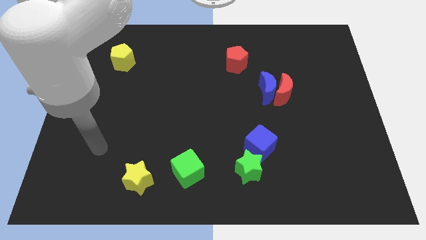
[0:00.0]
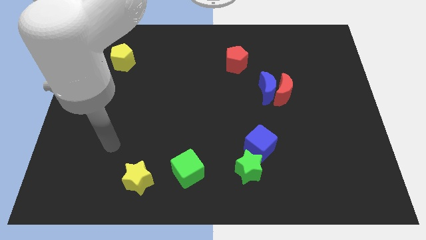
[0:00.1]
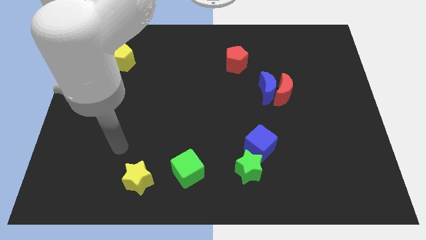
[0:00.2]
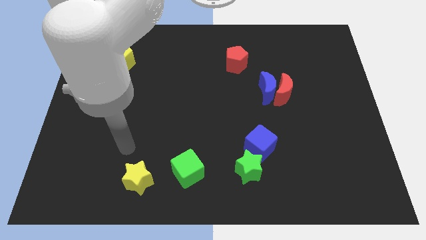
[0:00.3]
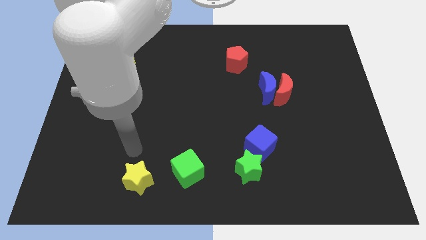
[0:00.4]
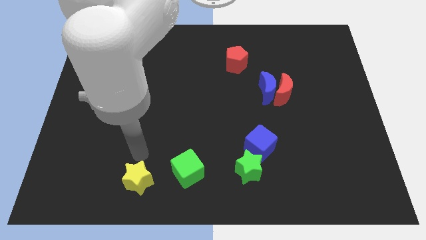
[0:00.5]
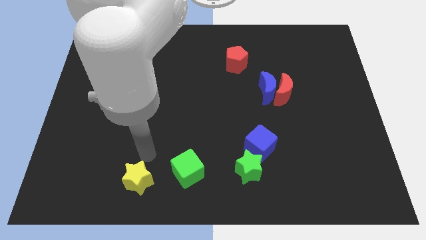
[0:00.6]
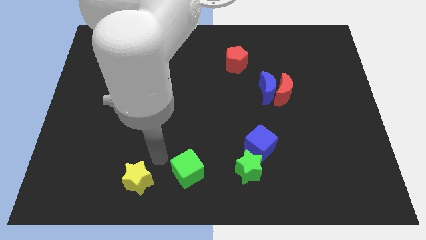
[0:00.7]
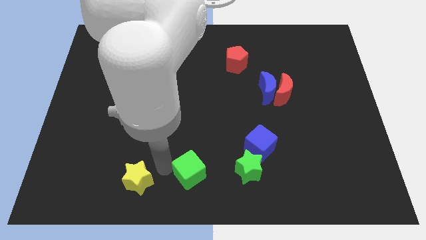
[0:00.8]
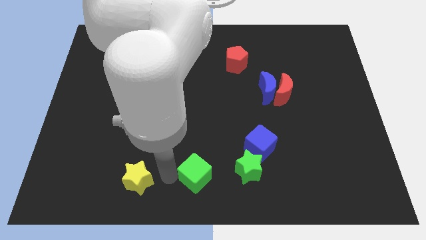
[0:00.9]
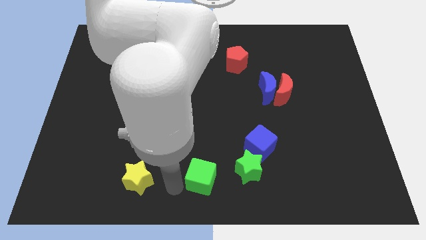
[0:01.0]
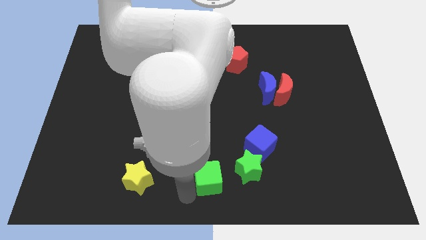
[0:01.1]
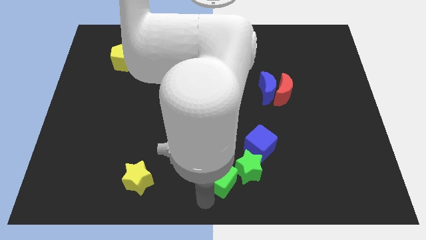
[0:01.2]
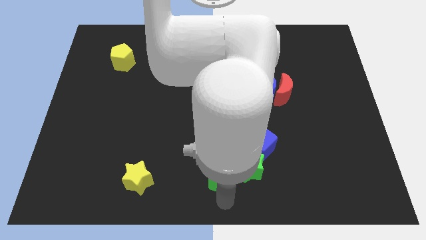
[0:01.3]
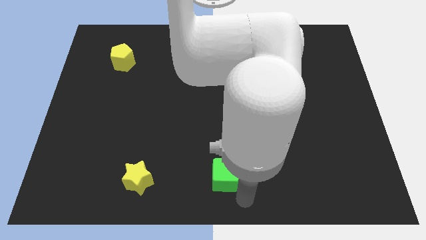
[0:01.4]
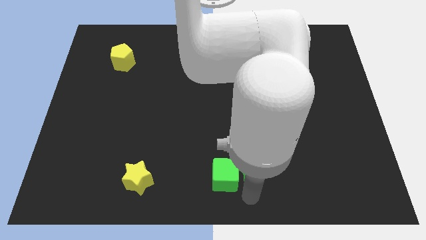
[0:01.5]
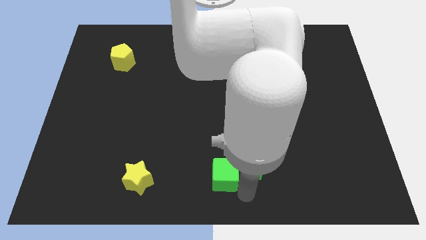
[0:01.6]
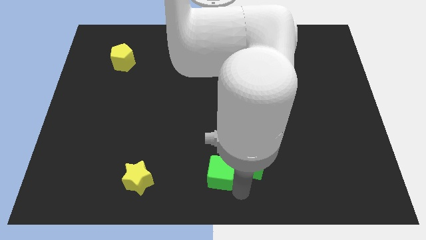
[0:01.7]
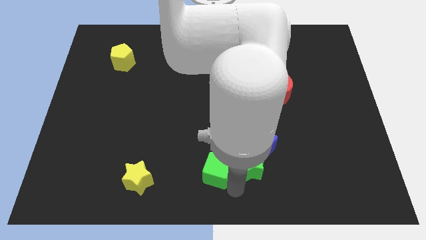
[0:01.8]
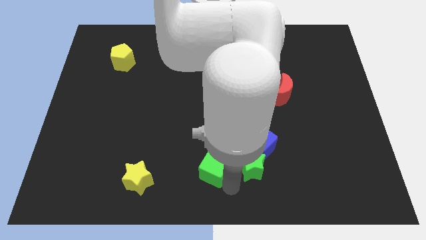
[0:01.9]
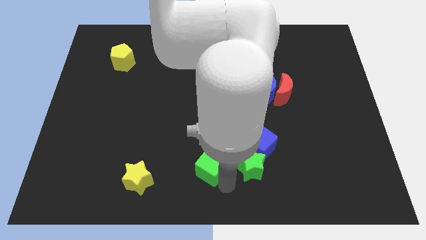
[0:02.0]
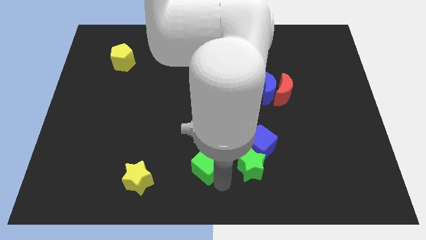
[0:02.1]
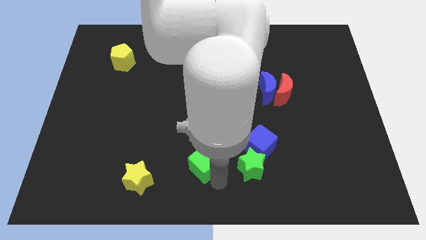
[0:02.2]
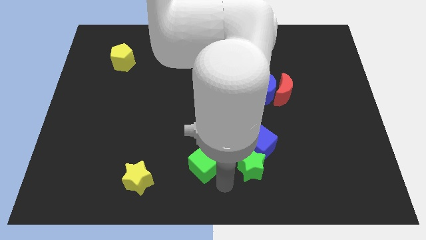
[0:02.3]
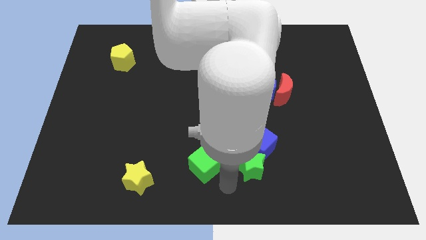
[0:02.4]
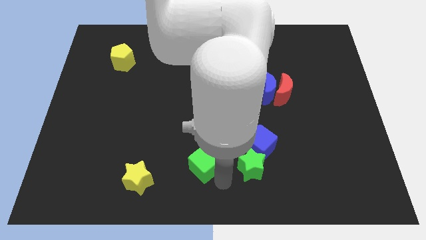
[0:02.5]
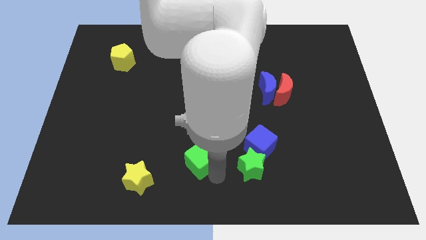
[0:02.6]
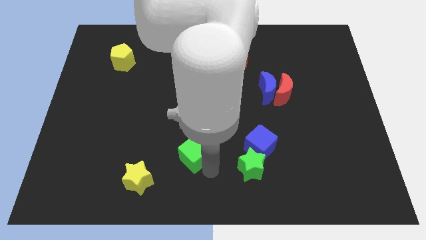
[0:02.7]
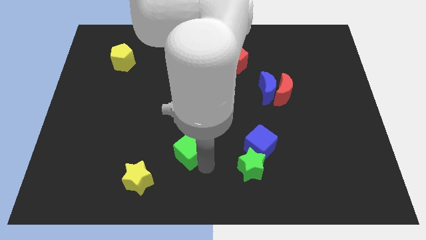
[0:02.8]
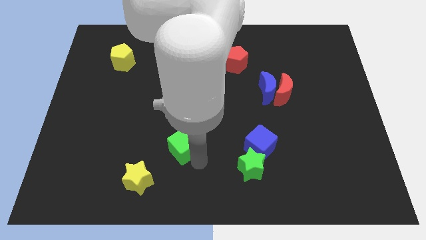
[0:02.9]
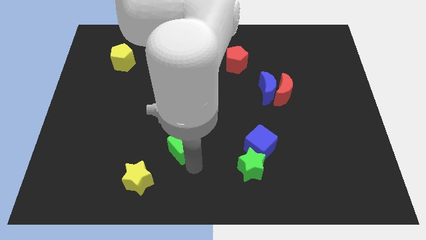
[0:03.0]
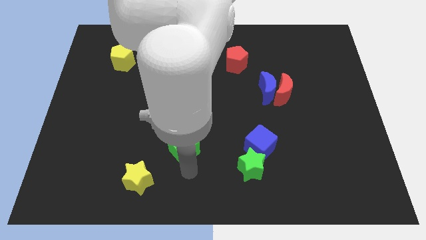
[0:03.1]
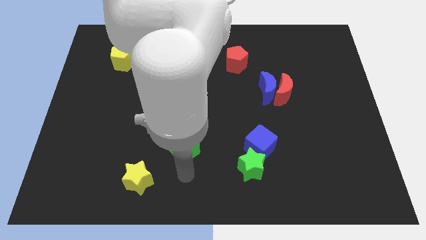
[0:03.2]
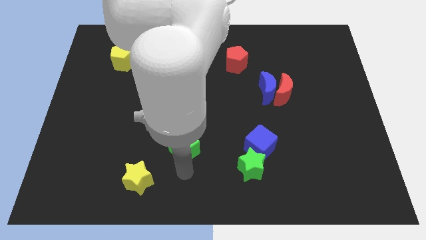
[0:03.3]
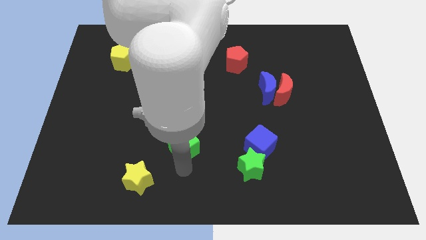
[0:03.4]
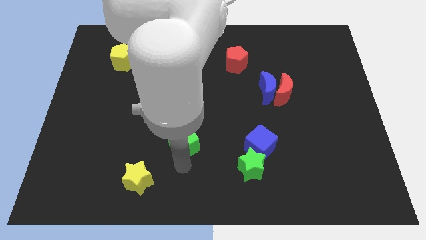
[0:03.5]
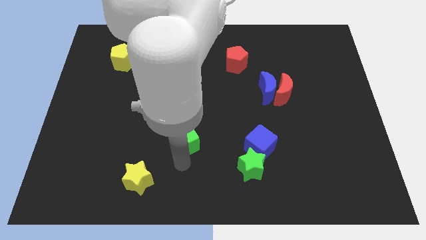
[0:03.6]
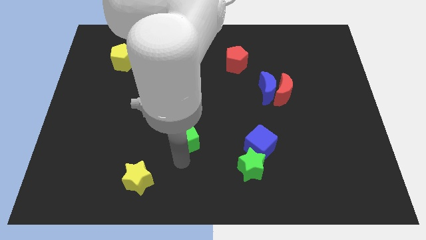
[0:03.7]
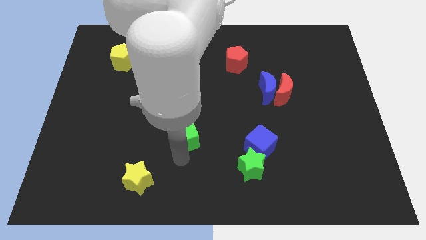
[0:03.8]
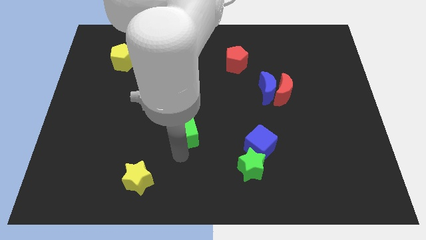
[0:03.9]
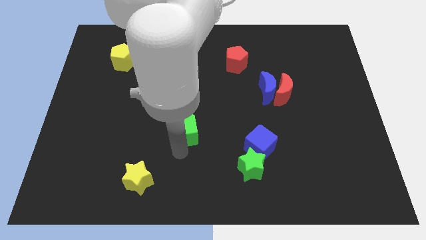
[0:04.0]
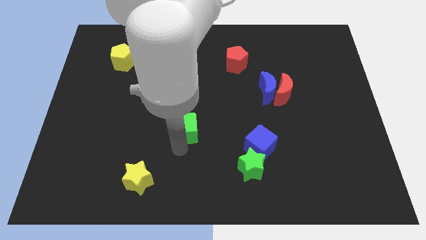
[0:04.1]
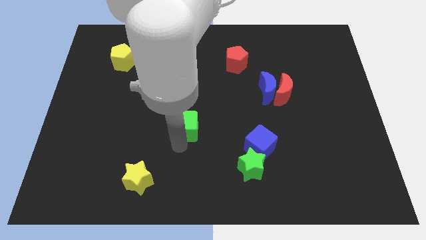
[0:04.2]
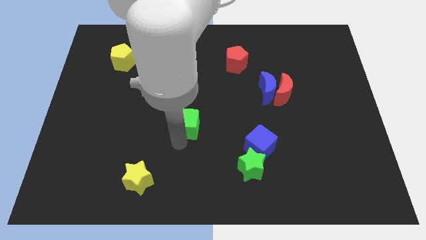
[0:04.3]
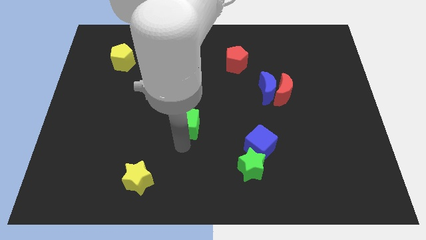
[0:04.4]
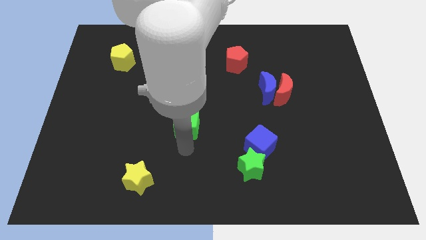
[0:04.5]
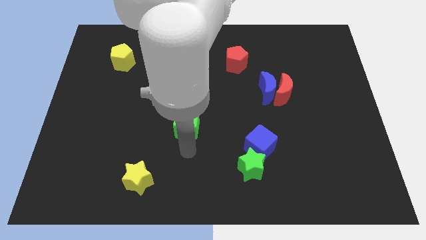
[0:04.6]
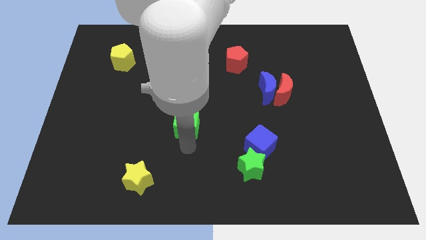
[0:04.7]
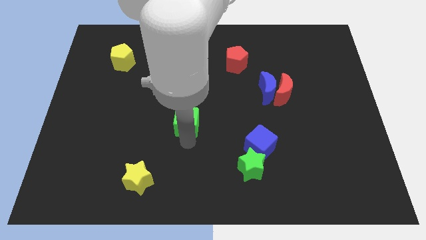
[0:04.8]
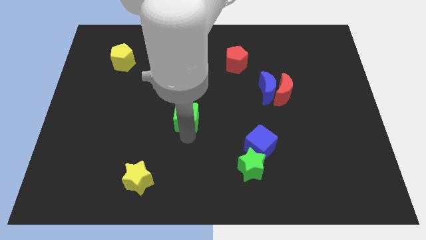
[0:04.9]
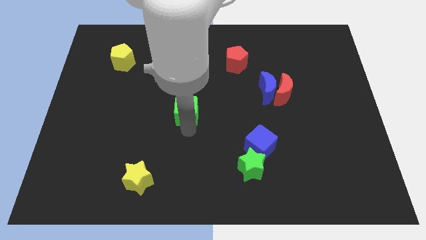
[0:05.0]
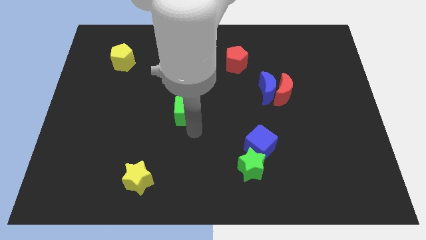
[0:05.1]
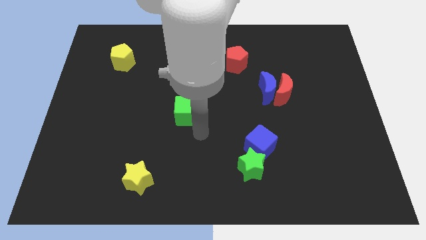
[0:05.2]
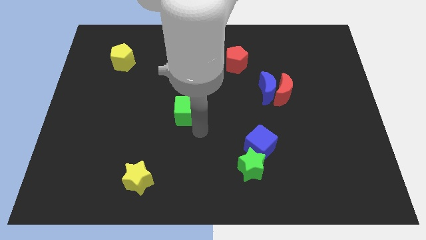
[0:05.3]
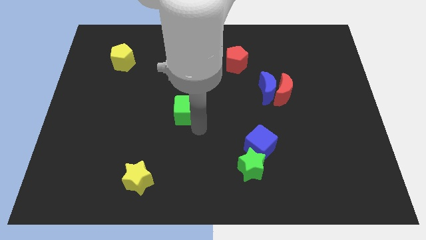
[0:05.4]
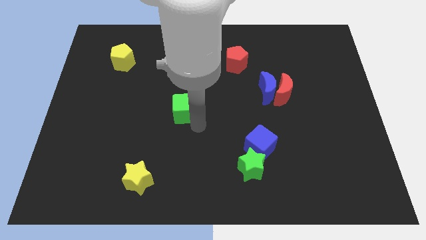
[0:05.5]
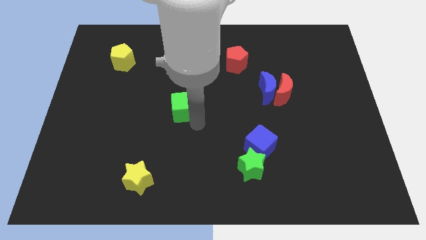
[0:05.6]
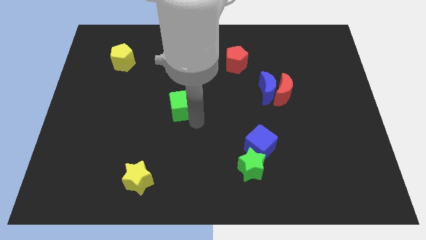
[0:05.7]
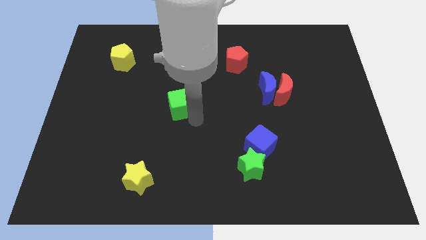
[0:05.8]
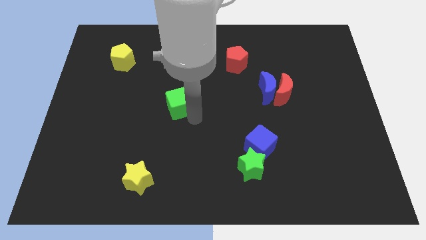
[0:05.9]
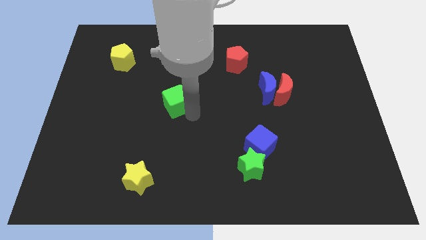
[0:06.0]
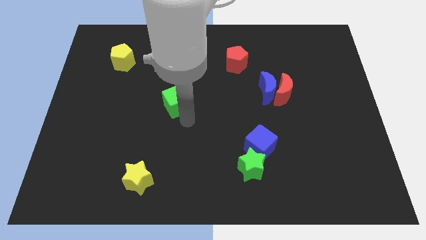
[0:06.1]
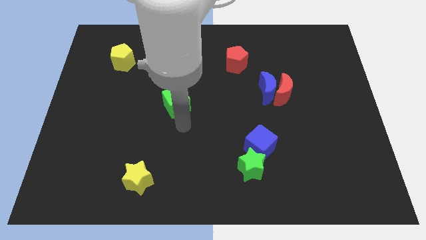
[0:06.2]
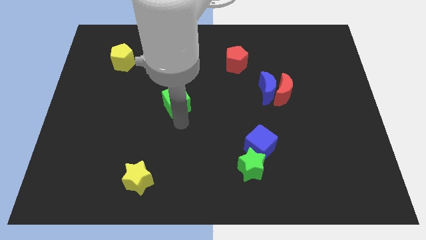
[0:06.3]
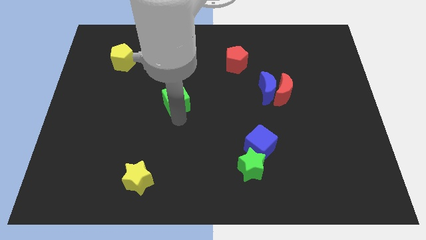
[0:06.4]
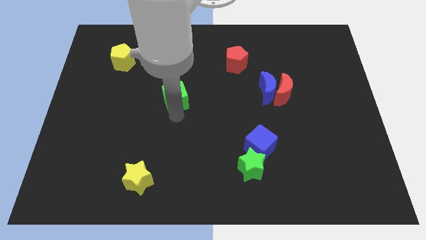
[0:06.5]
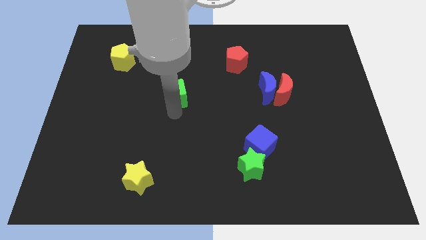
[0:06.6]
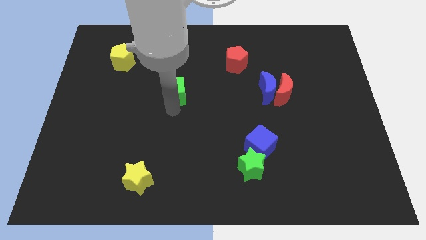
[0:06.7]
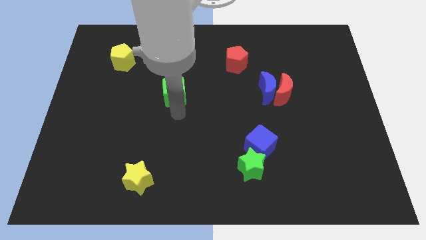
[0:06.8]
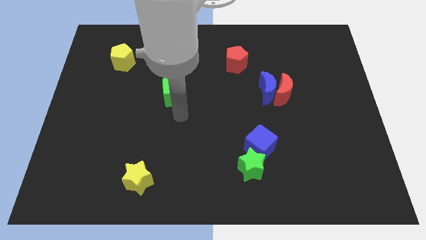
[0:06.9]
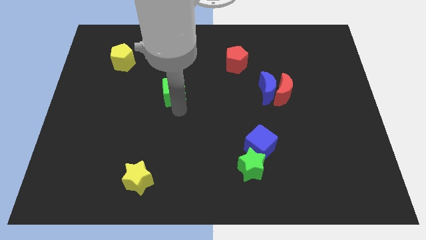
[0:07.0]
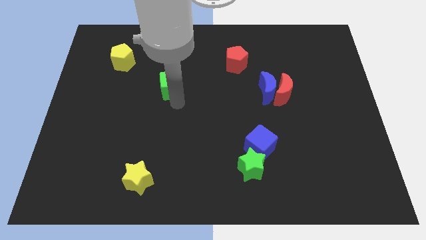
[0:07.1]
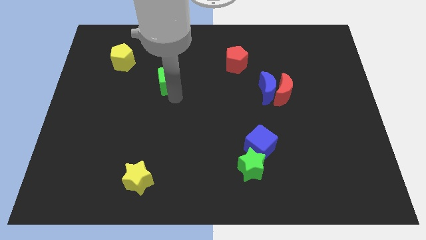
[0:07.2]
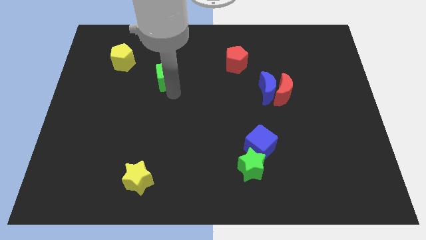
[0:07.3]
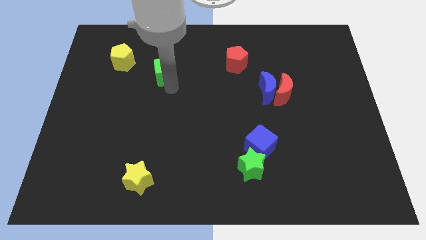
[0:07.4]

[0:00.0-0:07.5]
put the green cube right of the yellow pentagon
